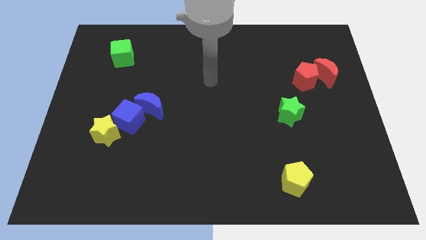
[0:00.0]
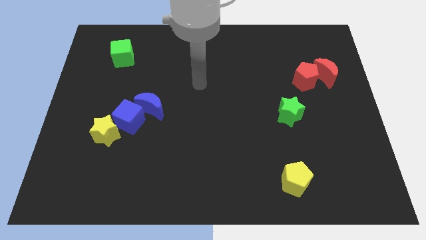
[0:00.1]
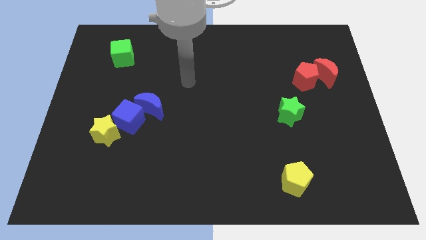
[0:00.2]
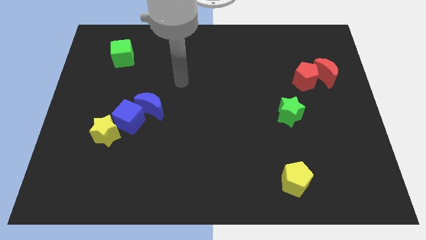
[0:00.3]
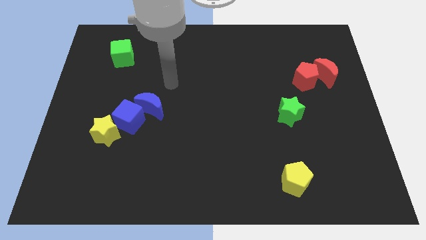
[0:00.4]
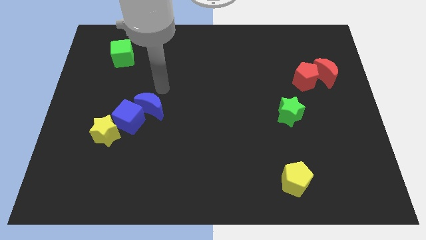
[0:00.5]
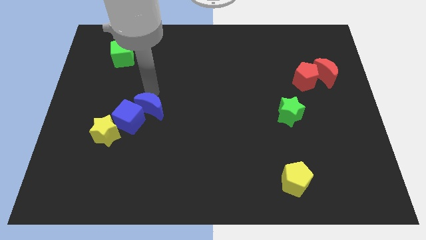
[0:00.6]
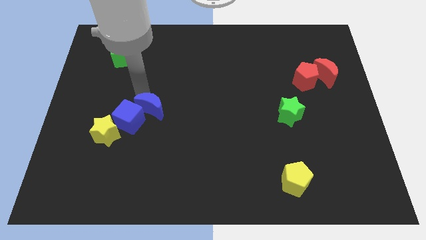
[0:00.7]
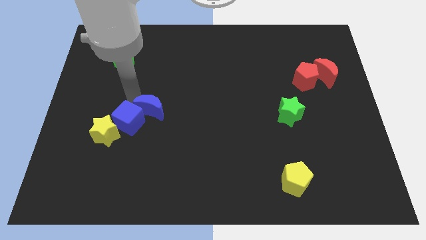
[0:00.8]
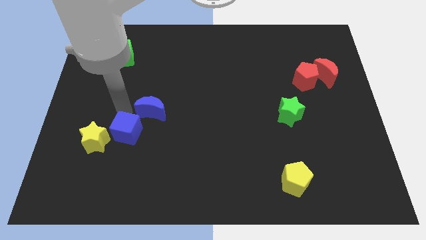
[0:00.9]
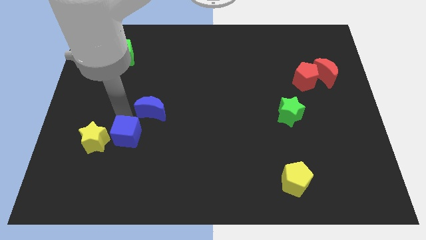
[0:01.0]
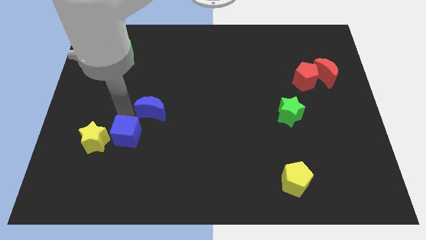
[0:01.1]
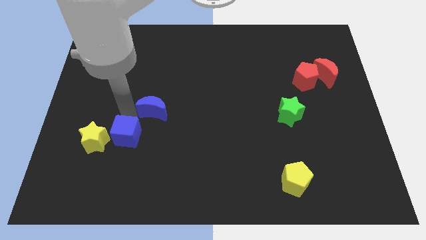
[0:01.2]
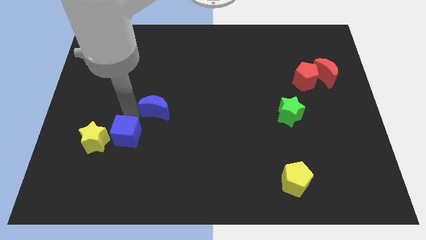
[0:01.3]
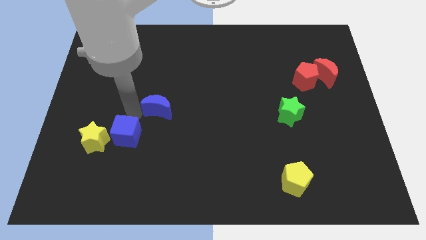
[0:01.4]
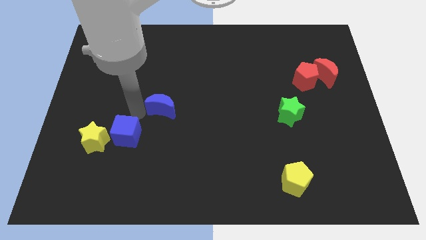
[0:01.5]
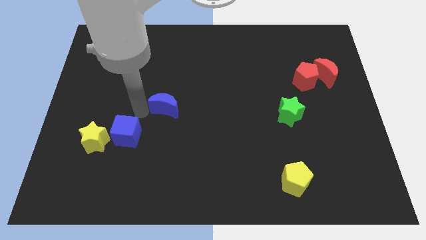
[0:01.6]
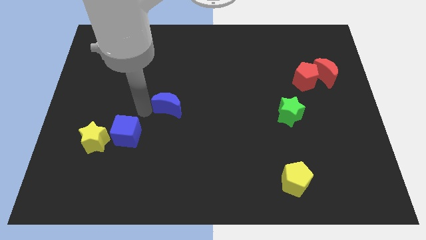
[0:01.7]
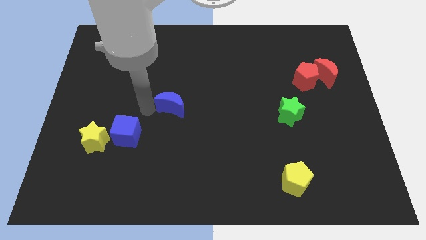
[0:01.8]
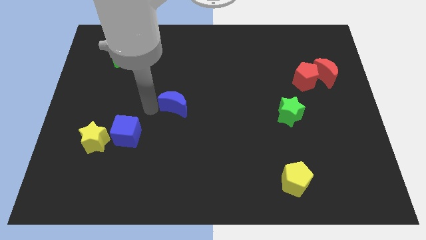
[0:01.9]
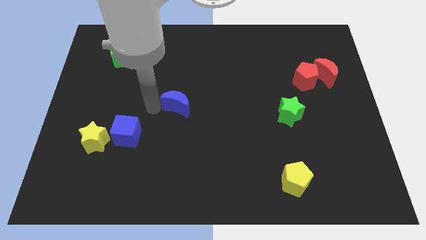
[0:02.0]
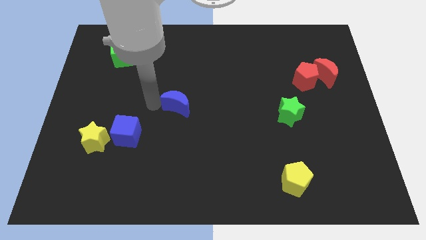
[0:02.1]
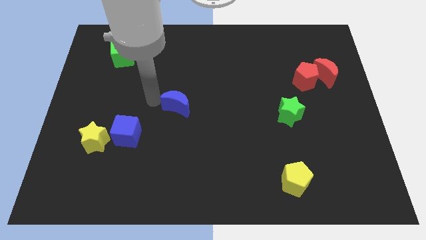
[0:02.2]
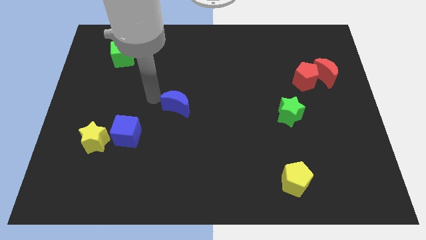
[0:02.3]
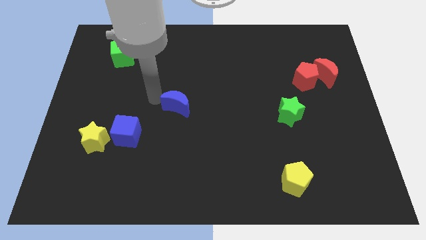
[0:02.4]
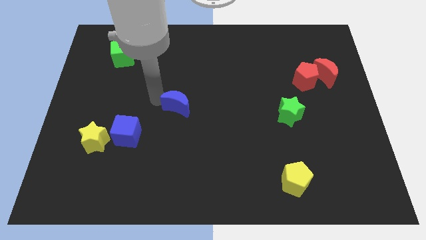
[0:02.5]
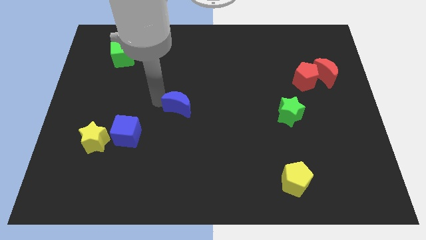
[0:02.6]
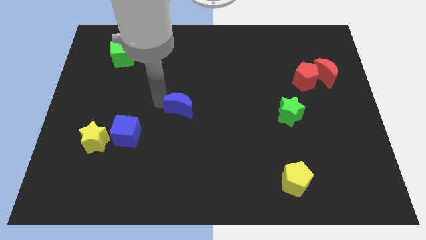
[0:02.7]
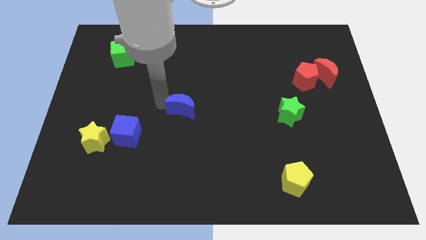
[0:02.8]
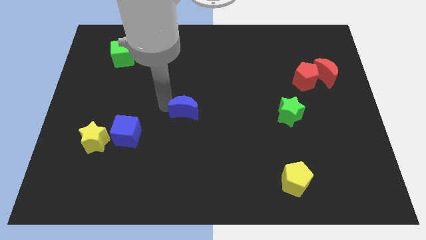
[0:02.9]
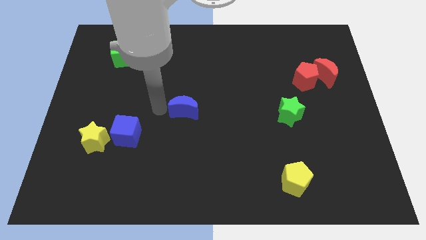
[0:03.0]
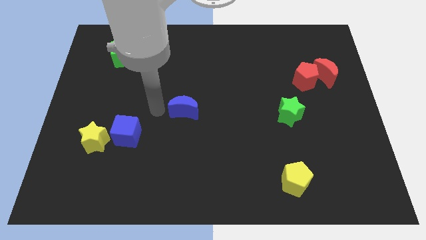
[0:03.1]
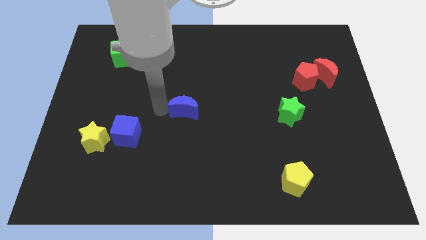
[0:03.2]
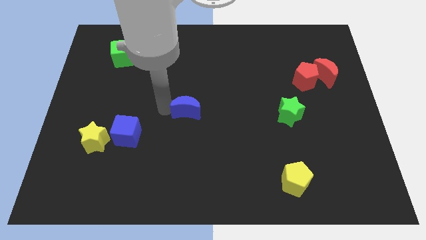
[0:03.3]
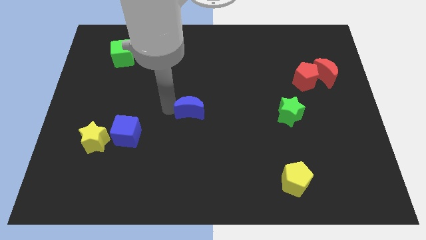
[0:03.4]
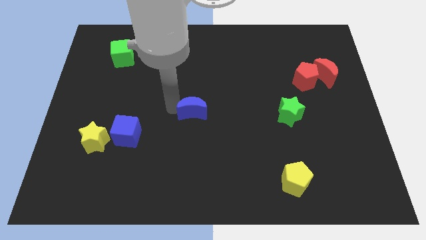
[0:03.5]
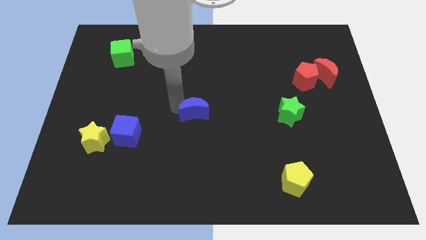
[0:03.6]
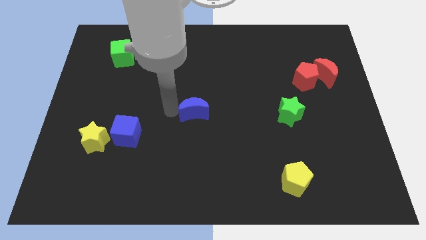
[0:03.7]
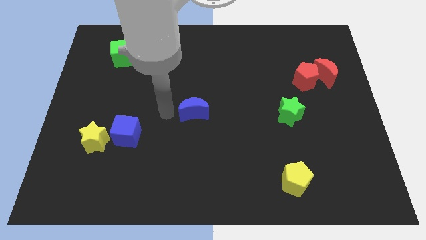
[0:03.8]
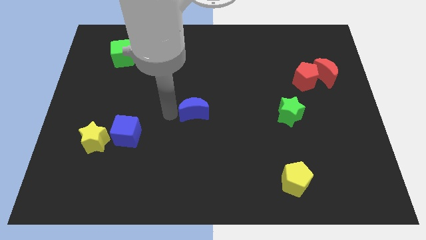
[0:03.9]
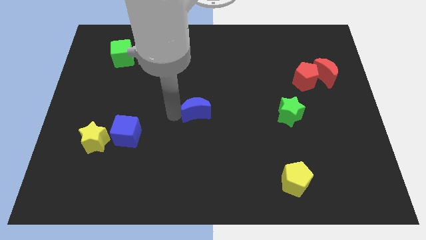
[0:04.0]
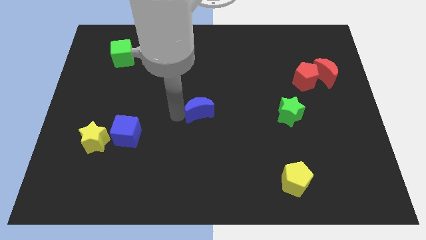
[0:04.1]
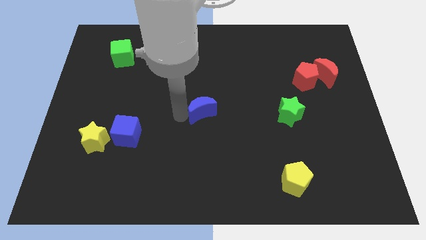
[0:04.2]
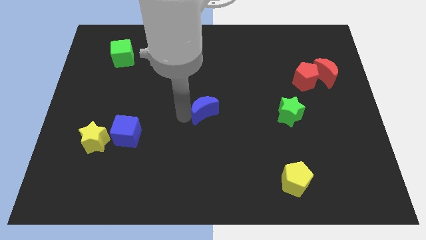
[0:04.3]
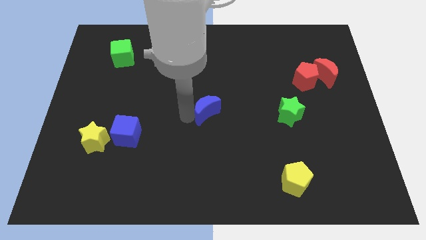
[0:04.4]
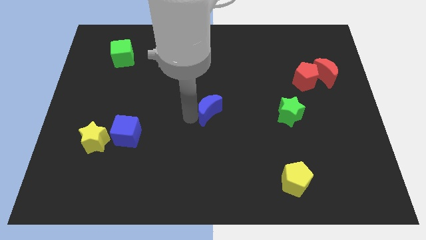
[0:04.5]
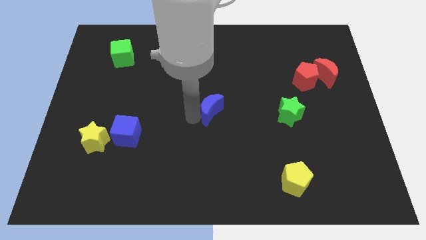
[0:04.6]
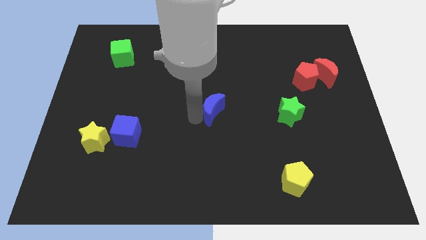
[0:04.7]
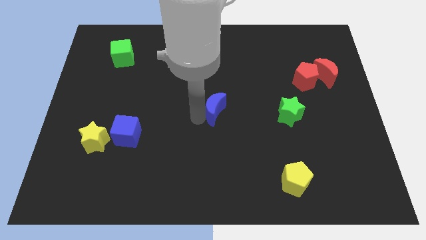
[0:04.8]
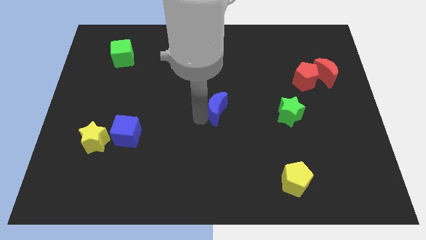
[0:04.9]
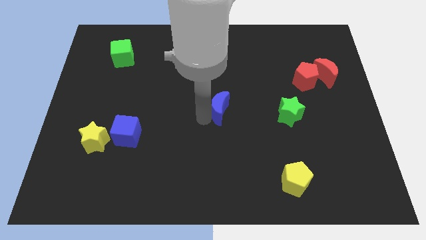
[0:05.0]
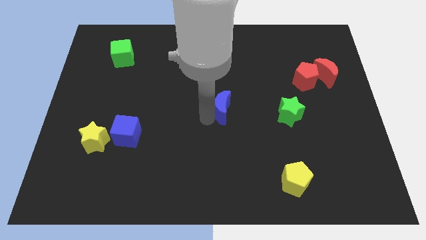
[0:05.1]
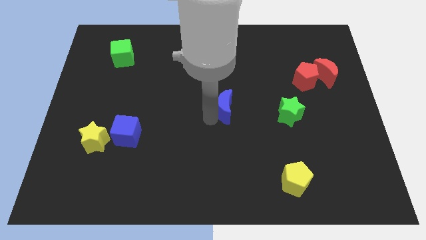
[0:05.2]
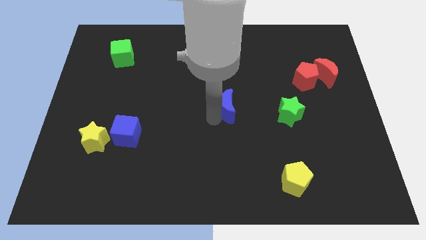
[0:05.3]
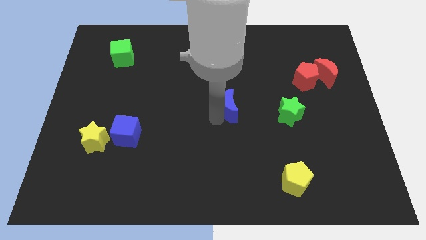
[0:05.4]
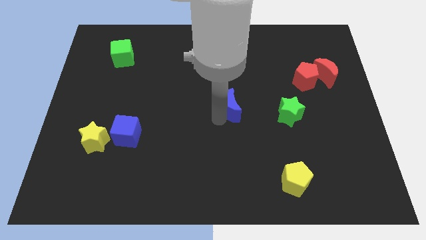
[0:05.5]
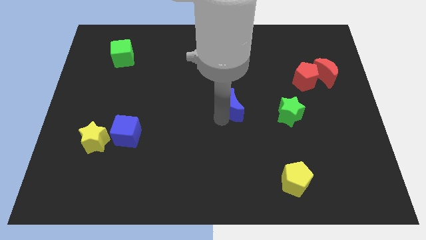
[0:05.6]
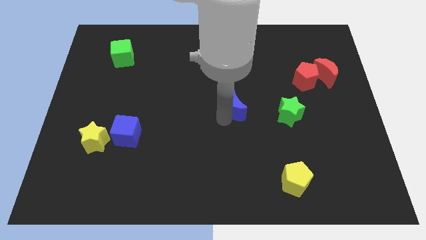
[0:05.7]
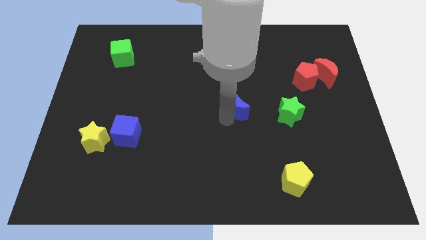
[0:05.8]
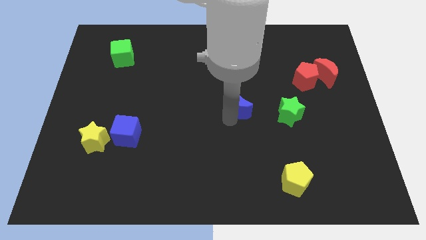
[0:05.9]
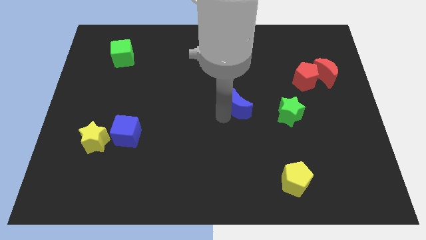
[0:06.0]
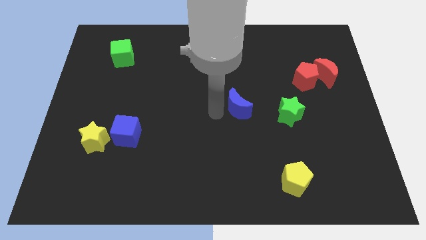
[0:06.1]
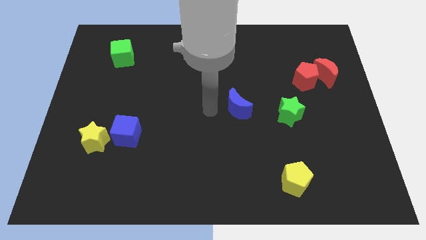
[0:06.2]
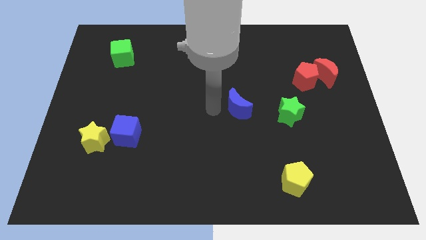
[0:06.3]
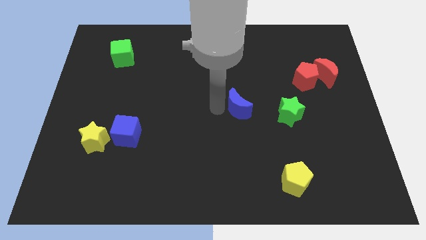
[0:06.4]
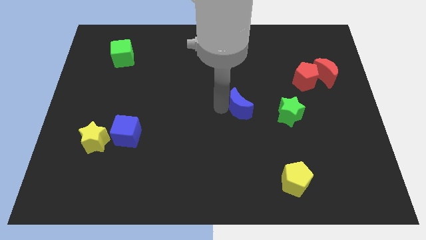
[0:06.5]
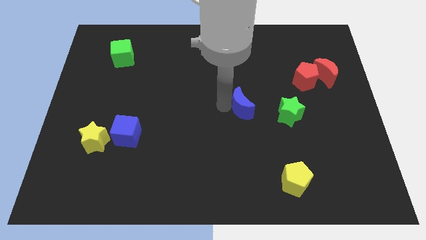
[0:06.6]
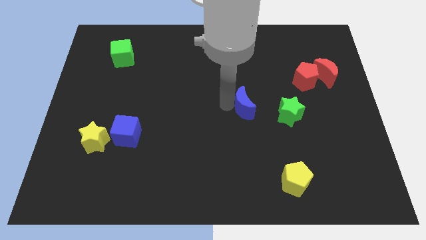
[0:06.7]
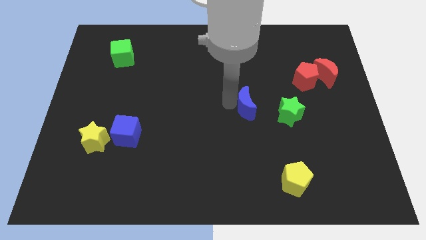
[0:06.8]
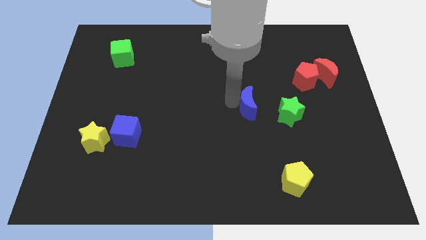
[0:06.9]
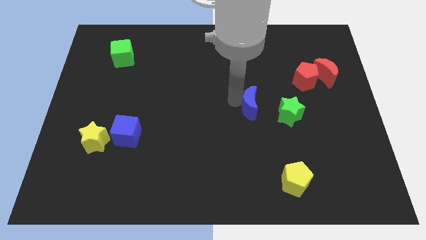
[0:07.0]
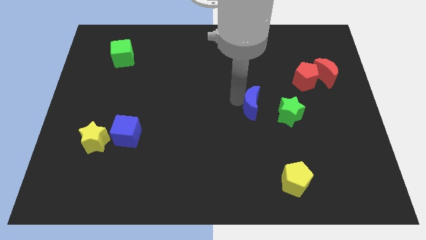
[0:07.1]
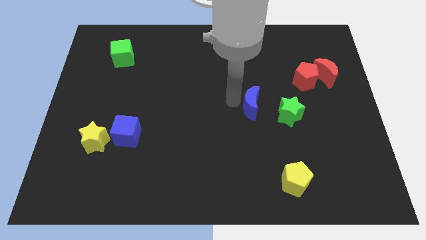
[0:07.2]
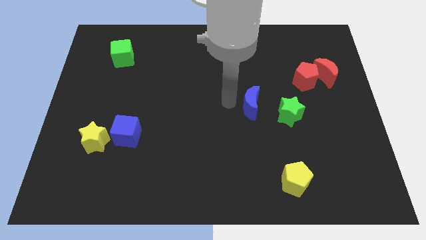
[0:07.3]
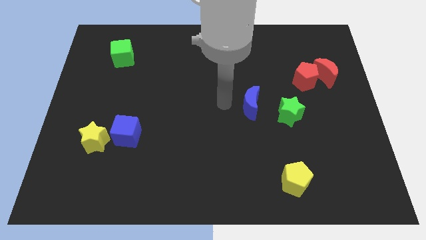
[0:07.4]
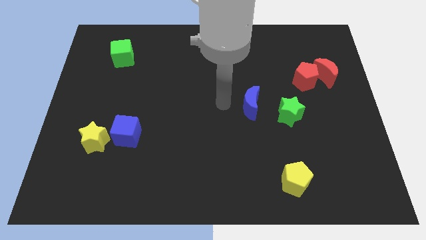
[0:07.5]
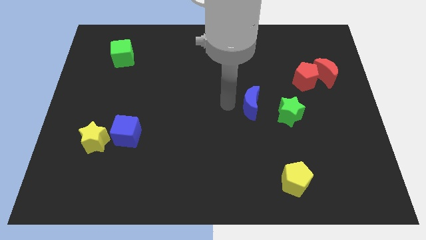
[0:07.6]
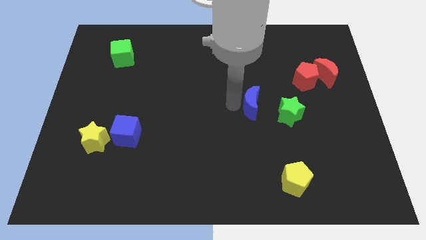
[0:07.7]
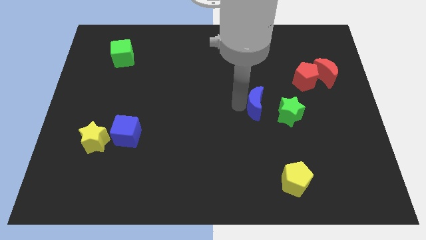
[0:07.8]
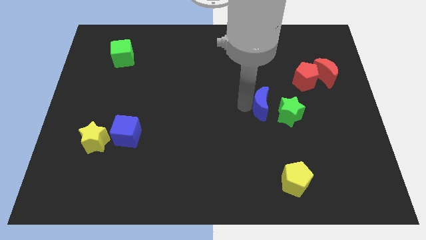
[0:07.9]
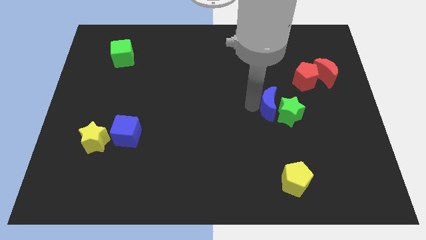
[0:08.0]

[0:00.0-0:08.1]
move the blue moon towards the green star
